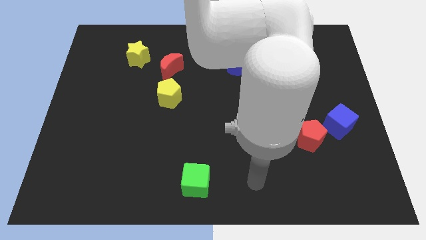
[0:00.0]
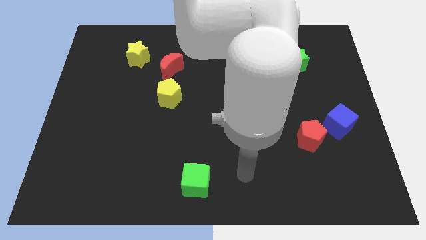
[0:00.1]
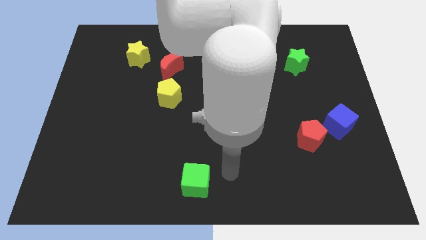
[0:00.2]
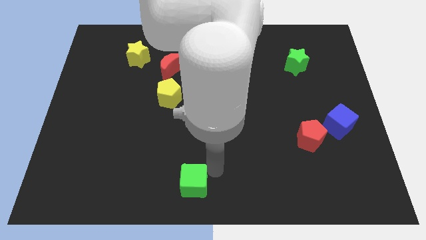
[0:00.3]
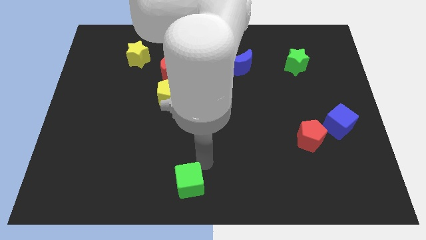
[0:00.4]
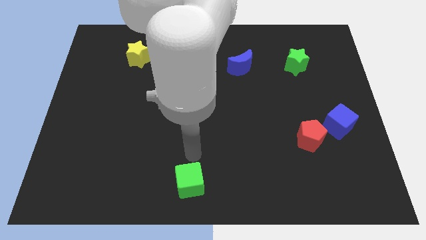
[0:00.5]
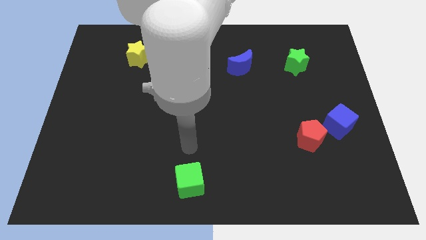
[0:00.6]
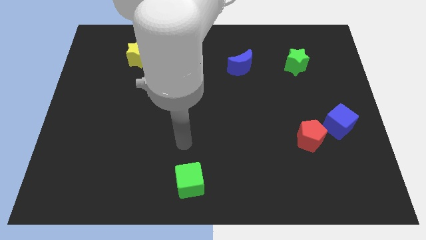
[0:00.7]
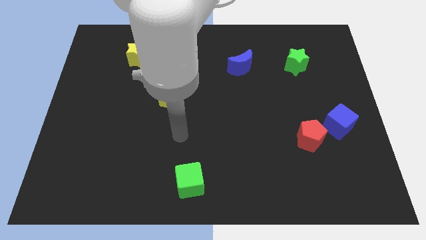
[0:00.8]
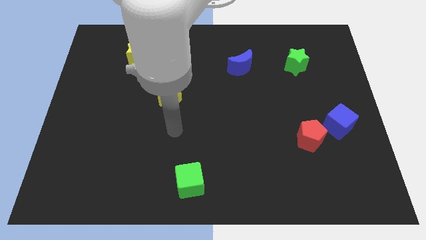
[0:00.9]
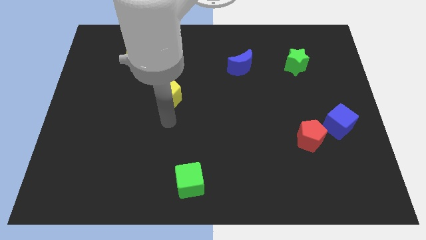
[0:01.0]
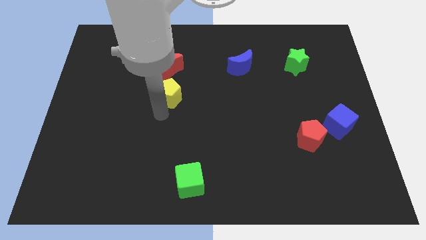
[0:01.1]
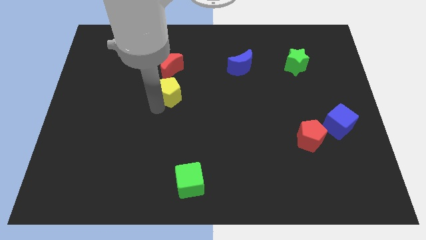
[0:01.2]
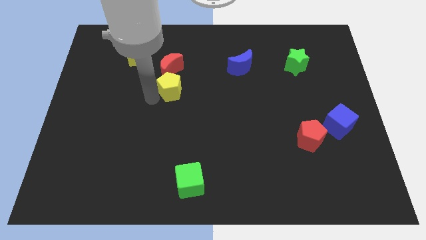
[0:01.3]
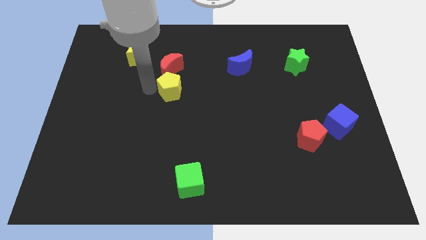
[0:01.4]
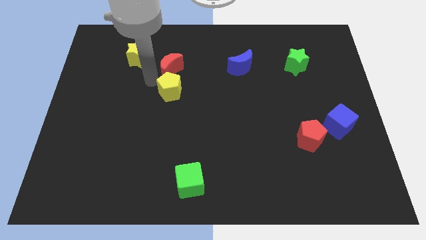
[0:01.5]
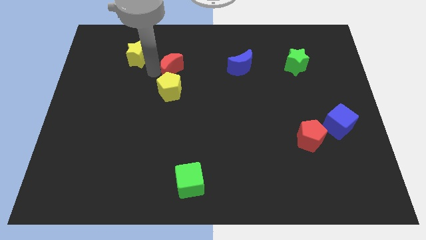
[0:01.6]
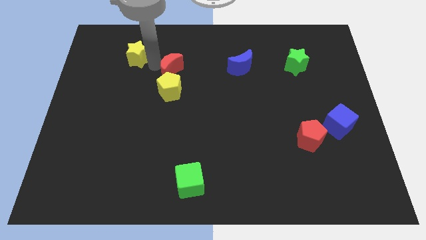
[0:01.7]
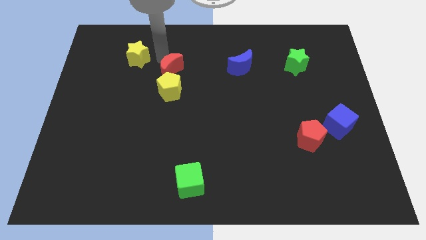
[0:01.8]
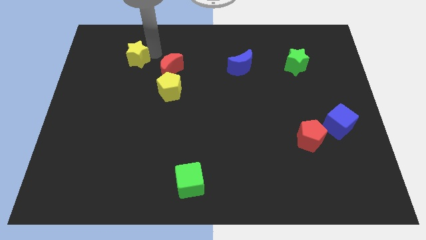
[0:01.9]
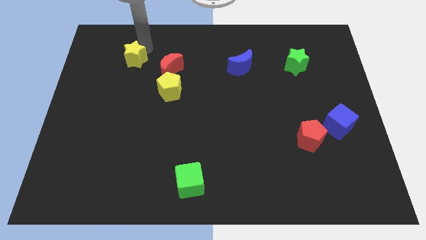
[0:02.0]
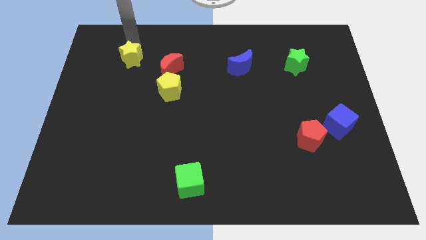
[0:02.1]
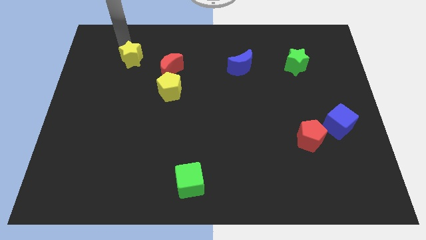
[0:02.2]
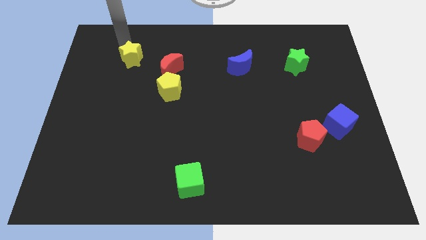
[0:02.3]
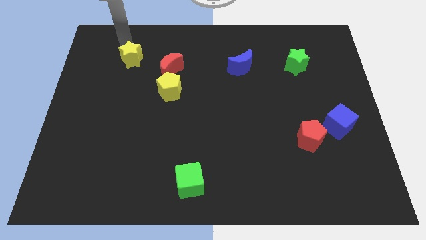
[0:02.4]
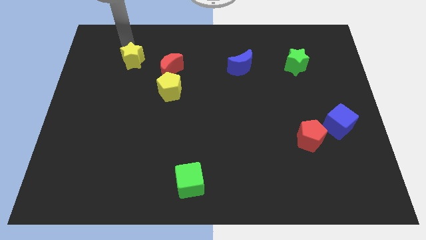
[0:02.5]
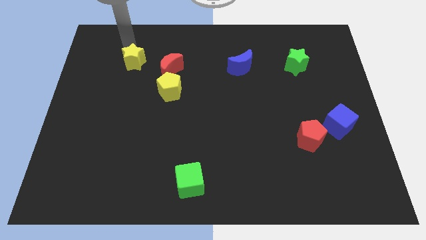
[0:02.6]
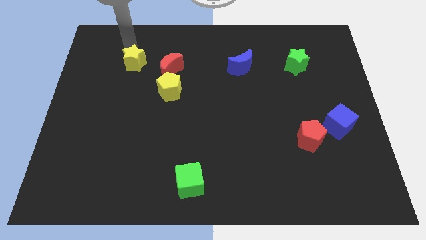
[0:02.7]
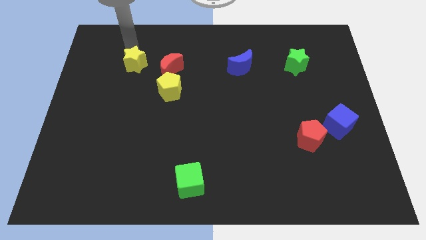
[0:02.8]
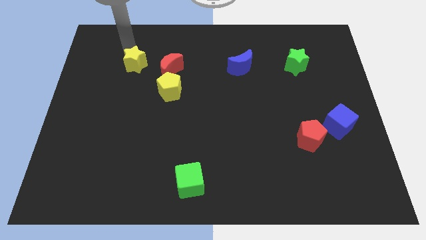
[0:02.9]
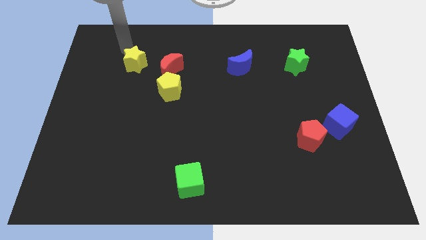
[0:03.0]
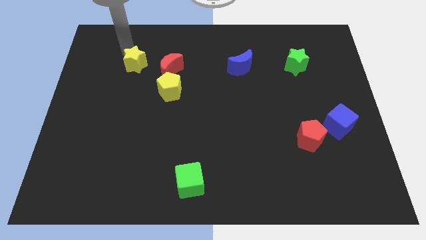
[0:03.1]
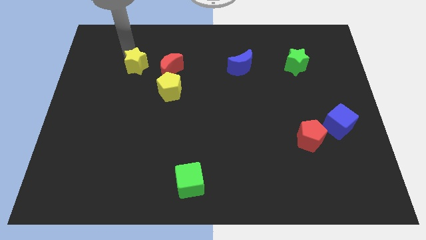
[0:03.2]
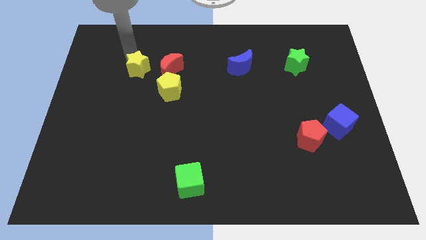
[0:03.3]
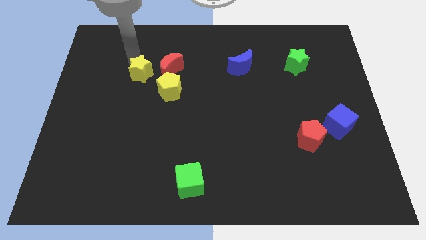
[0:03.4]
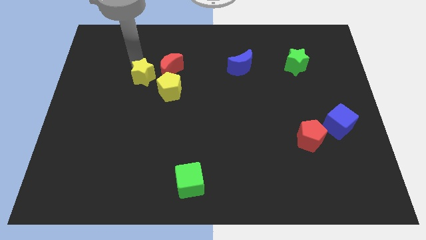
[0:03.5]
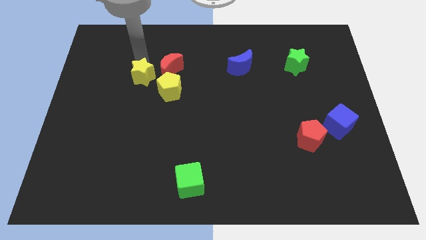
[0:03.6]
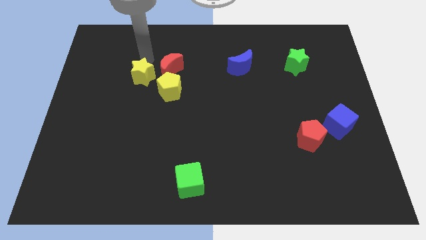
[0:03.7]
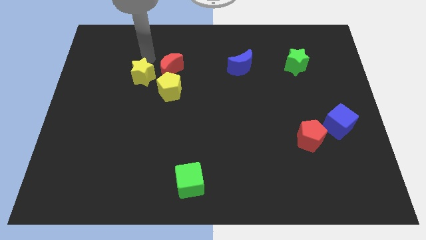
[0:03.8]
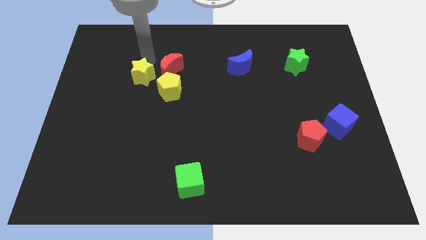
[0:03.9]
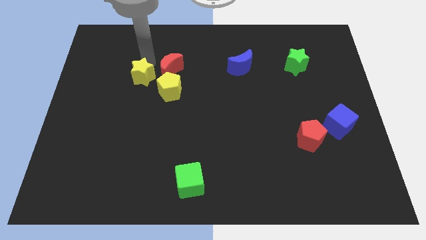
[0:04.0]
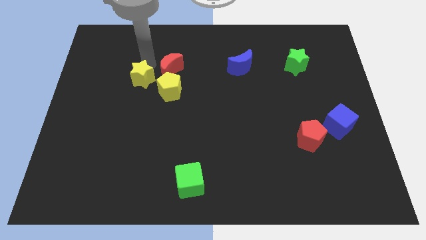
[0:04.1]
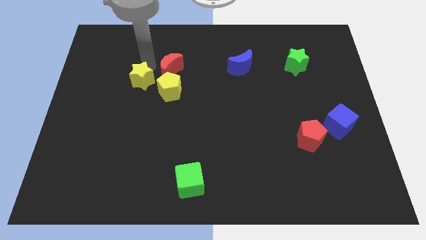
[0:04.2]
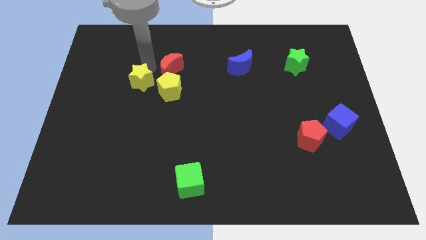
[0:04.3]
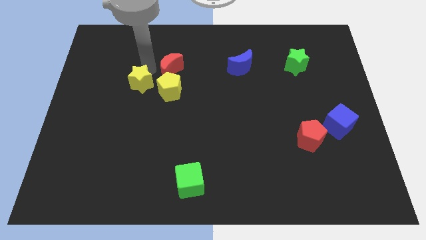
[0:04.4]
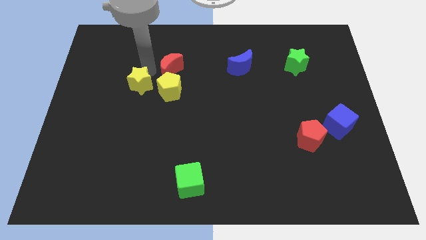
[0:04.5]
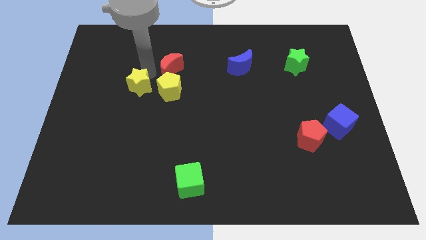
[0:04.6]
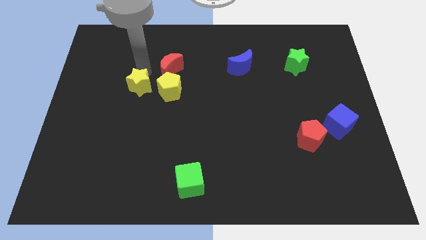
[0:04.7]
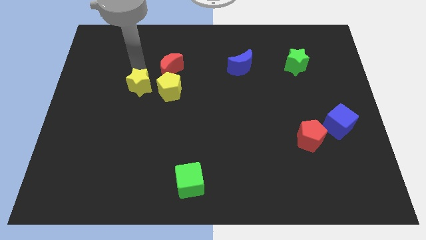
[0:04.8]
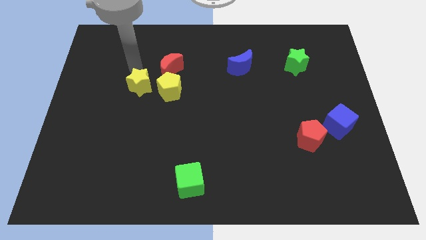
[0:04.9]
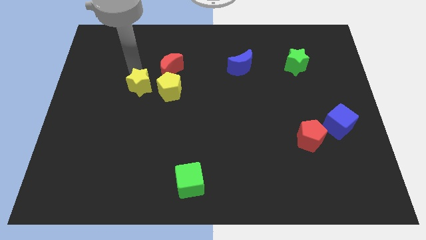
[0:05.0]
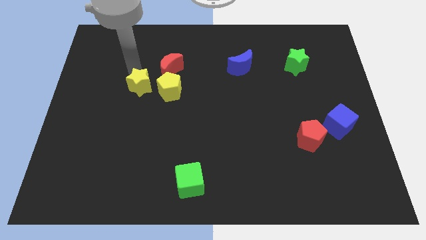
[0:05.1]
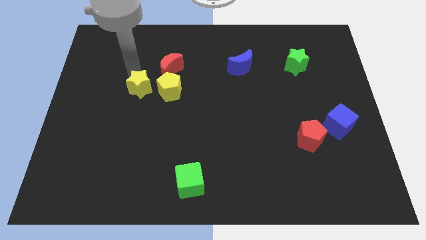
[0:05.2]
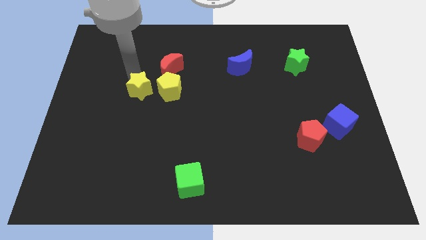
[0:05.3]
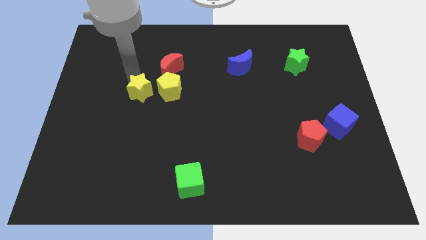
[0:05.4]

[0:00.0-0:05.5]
move the yellow star diagonally down and to the left of the yellow pentagon

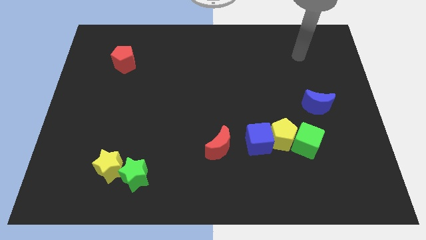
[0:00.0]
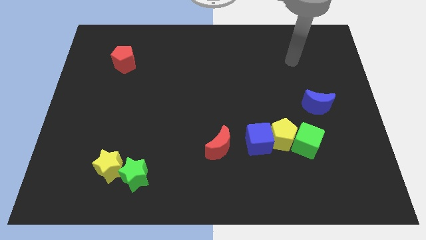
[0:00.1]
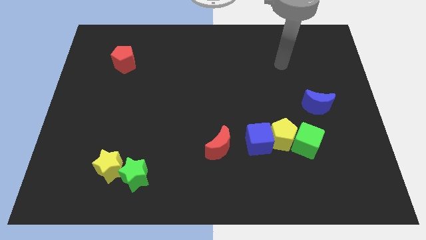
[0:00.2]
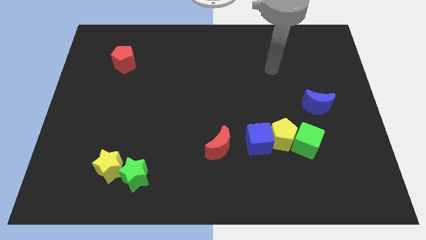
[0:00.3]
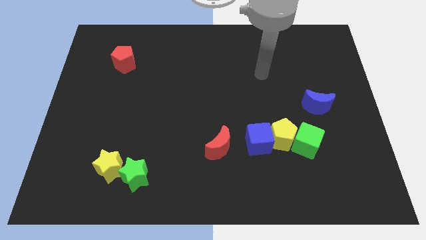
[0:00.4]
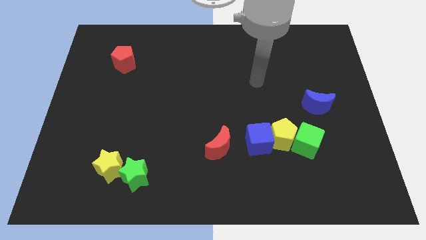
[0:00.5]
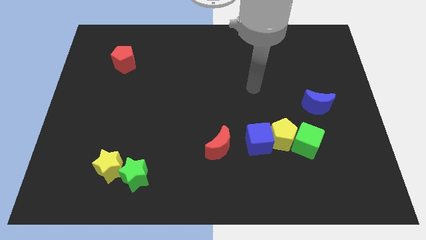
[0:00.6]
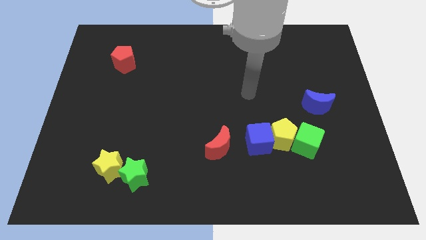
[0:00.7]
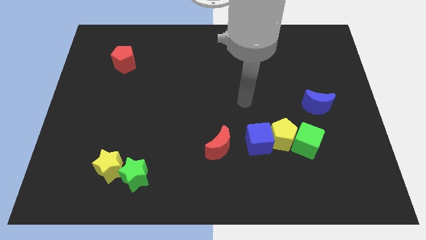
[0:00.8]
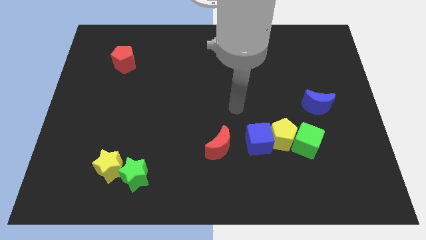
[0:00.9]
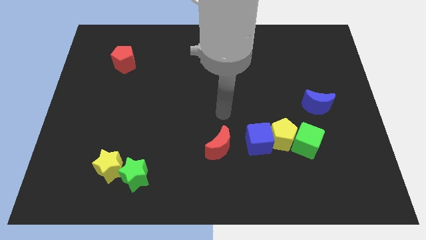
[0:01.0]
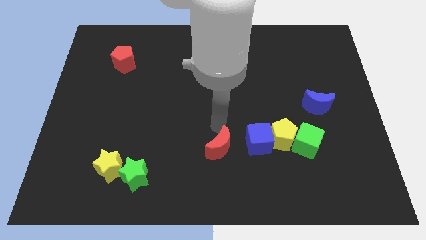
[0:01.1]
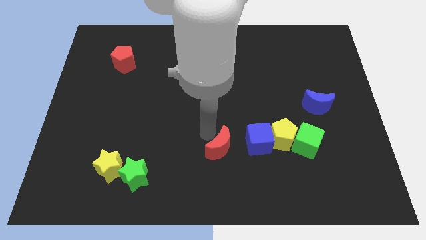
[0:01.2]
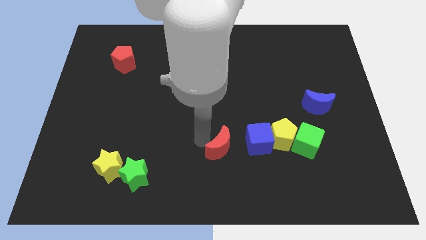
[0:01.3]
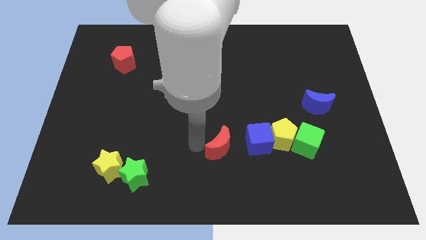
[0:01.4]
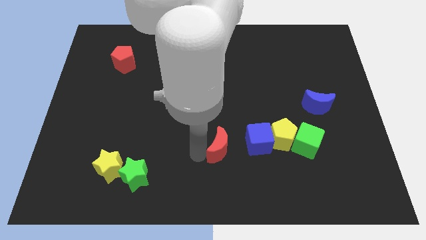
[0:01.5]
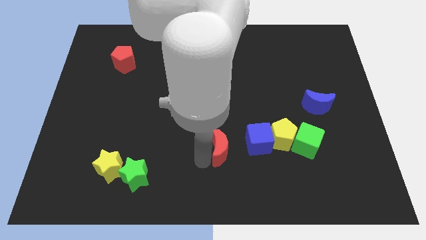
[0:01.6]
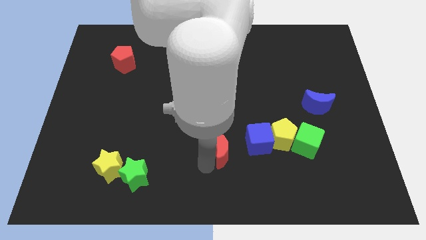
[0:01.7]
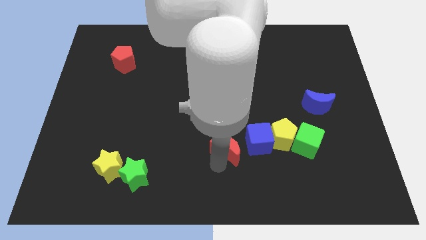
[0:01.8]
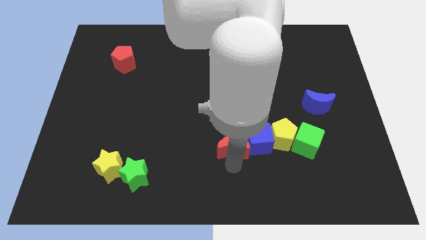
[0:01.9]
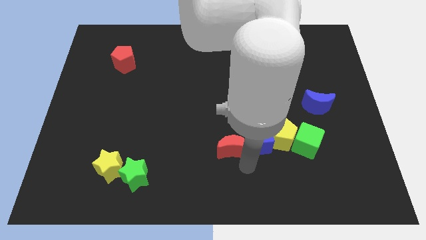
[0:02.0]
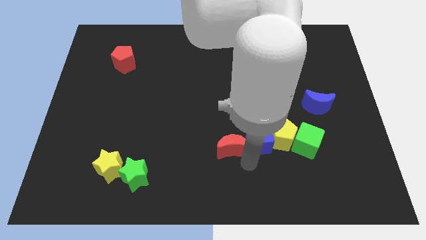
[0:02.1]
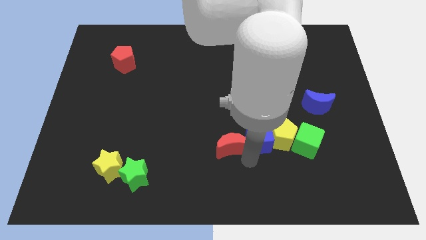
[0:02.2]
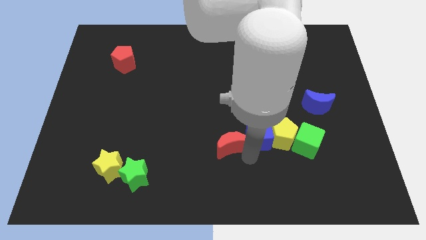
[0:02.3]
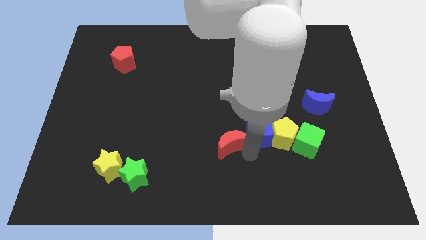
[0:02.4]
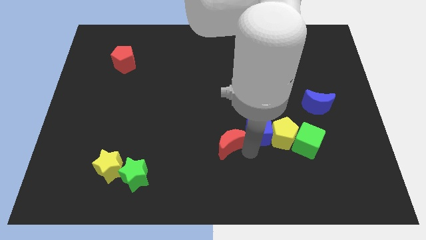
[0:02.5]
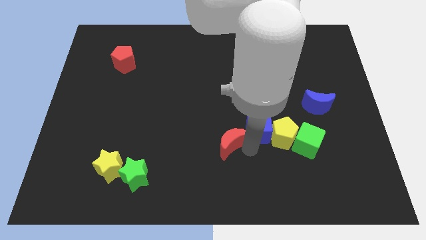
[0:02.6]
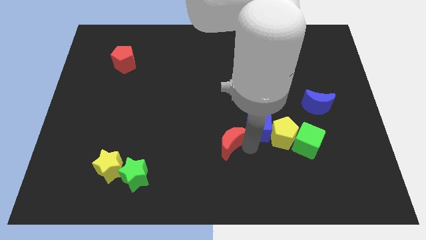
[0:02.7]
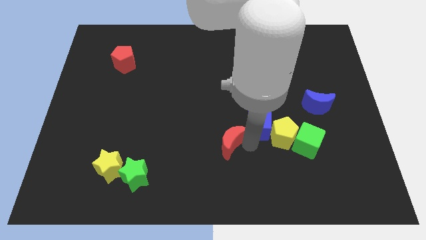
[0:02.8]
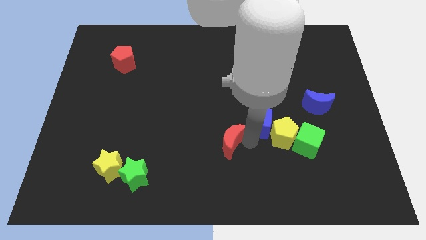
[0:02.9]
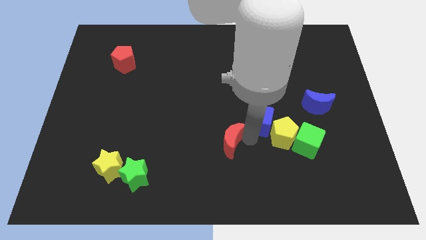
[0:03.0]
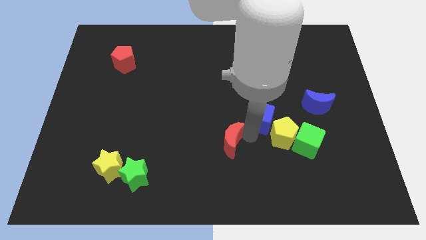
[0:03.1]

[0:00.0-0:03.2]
put the blue cube left of the blue moon
